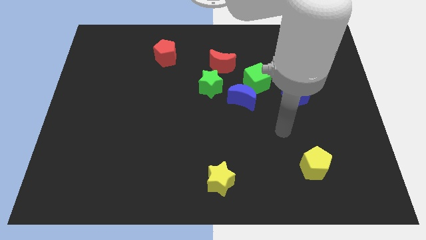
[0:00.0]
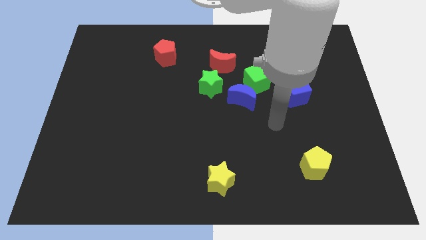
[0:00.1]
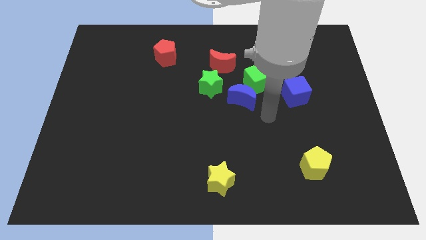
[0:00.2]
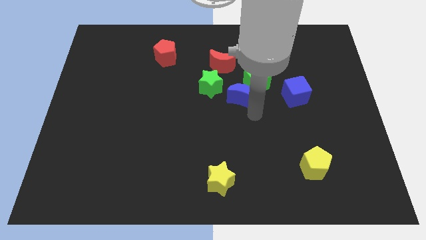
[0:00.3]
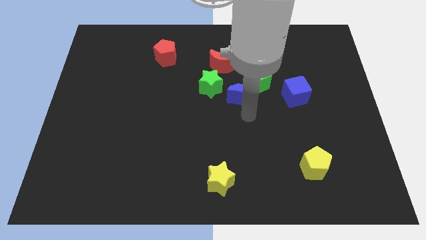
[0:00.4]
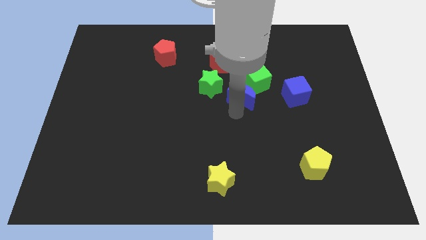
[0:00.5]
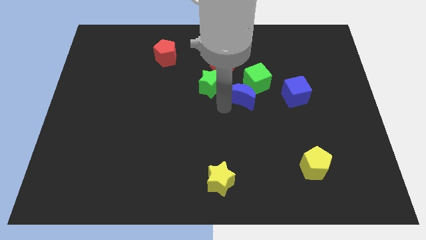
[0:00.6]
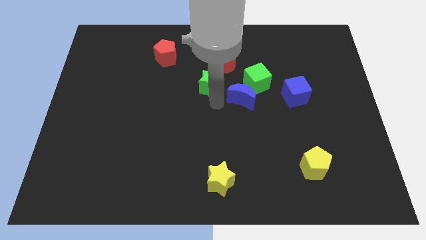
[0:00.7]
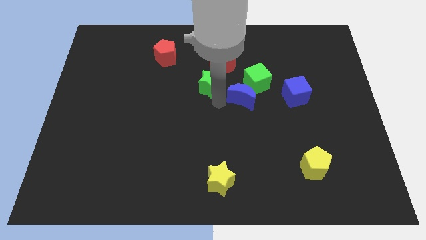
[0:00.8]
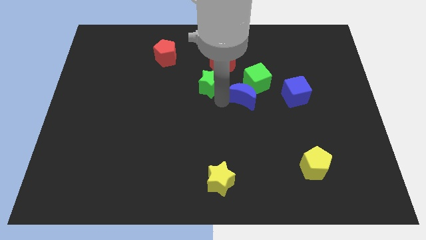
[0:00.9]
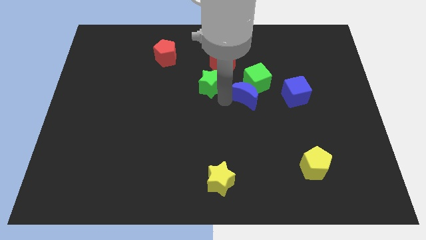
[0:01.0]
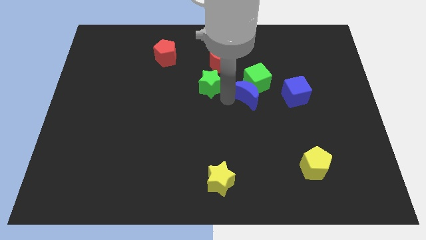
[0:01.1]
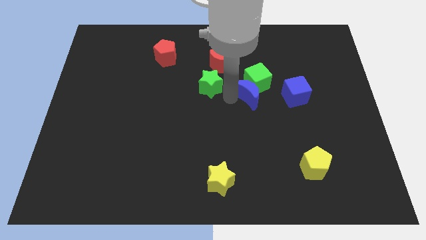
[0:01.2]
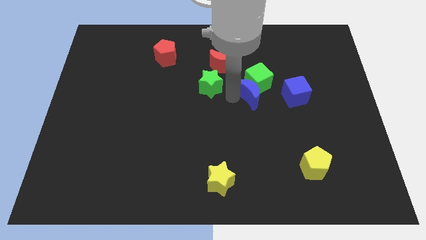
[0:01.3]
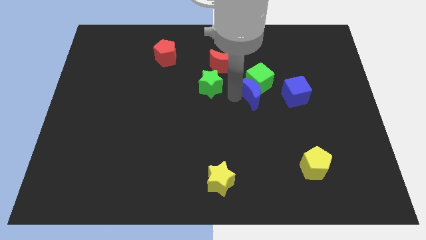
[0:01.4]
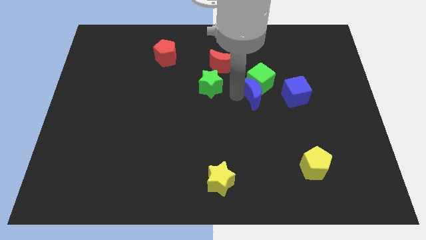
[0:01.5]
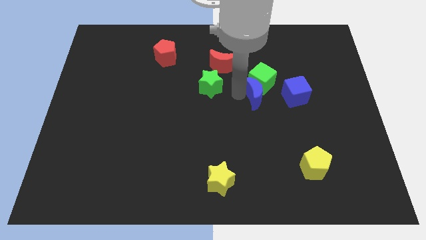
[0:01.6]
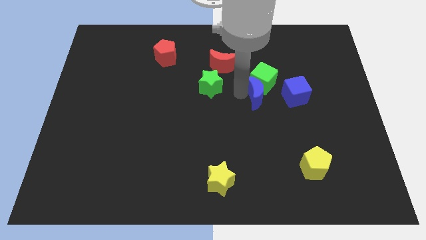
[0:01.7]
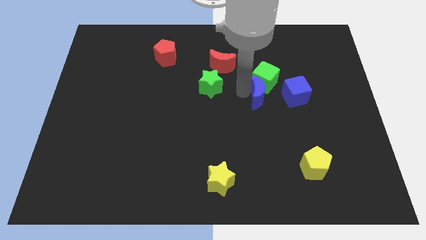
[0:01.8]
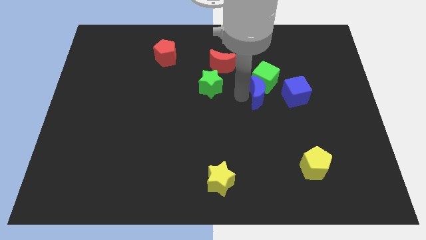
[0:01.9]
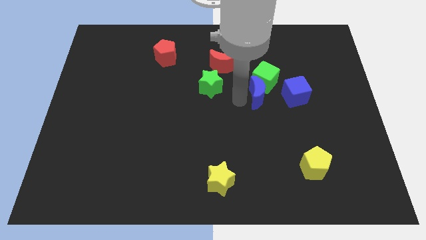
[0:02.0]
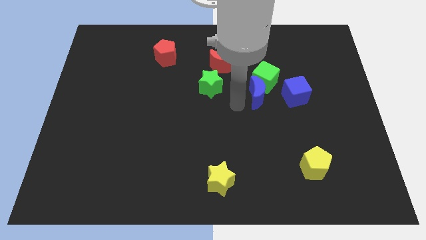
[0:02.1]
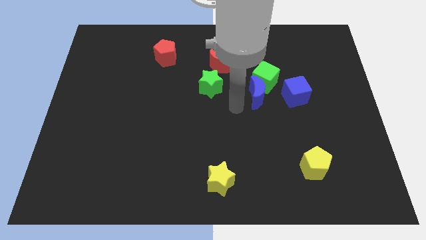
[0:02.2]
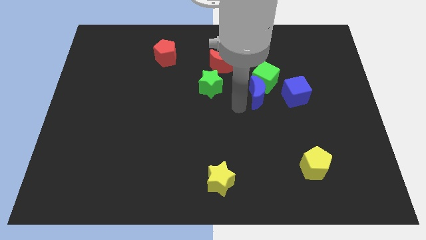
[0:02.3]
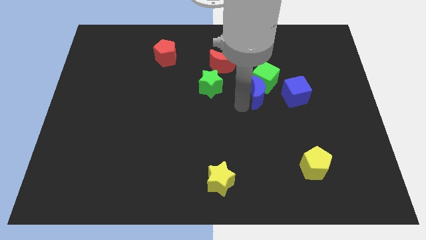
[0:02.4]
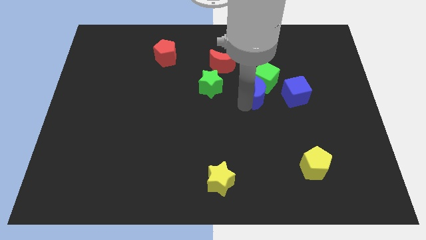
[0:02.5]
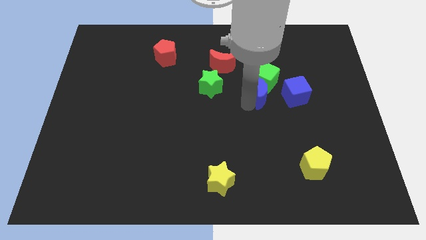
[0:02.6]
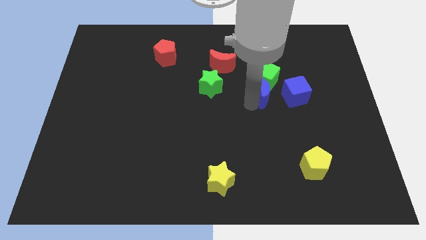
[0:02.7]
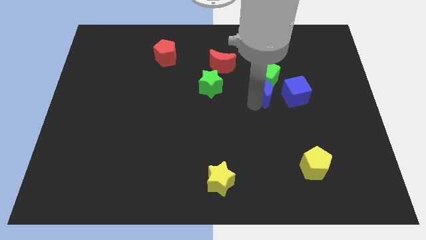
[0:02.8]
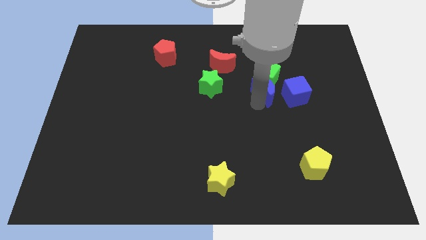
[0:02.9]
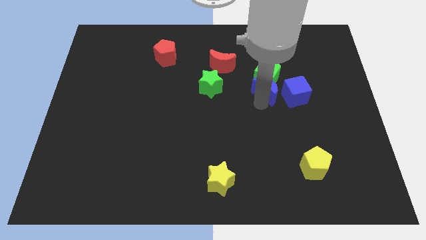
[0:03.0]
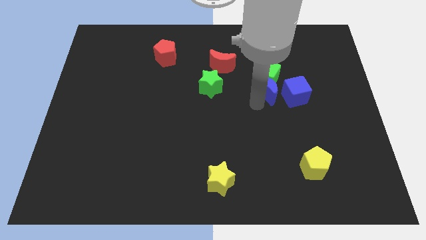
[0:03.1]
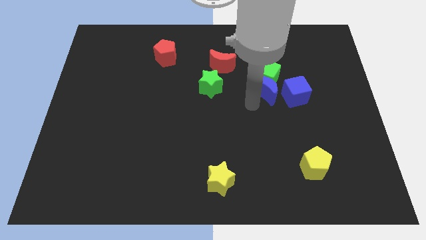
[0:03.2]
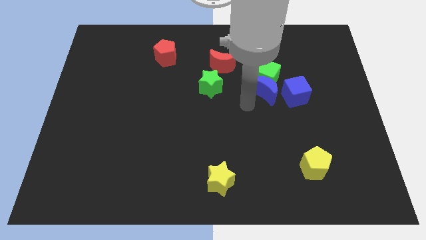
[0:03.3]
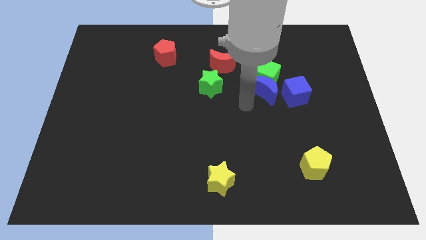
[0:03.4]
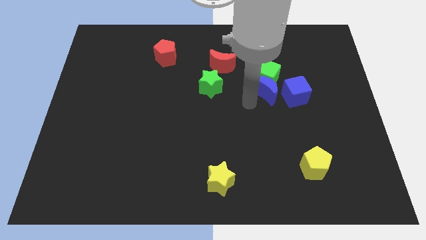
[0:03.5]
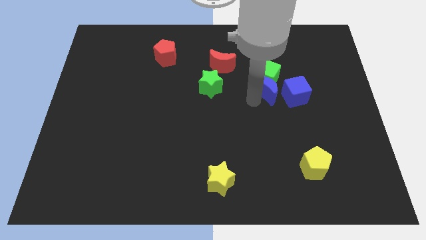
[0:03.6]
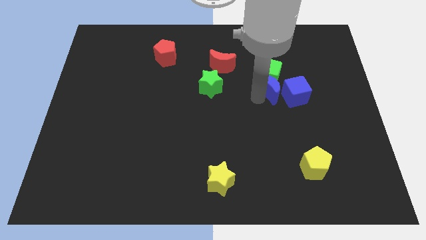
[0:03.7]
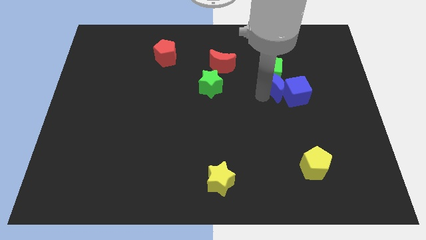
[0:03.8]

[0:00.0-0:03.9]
move the blue moon somewhat up and right

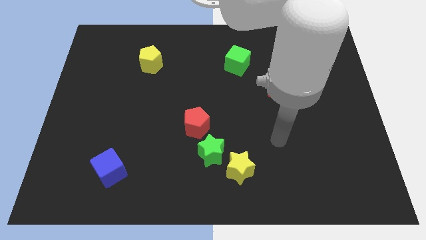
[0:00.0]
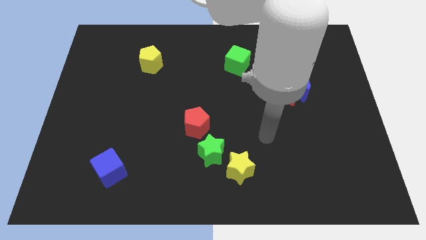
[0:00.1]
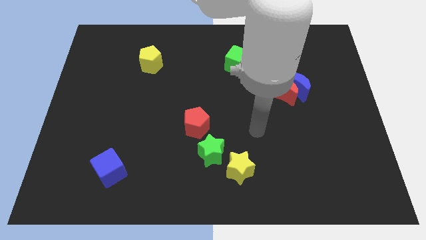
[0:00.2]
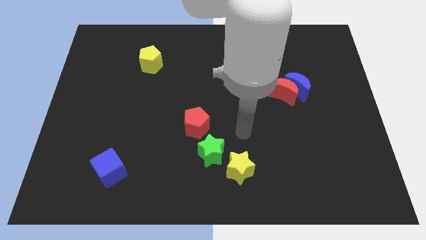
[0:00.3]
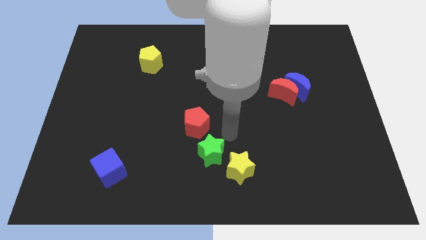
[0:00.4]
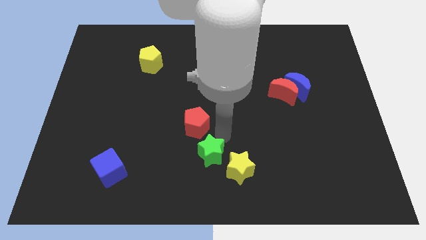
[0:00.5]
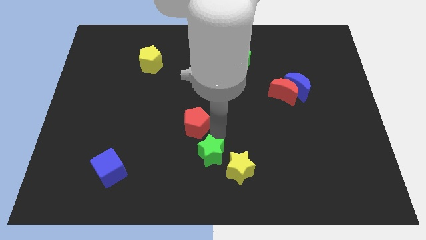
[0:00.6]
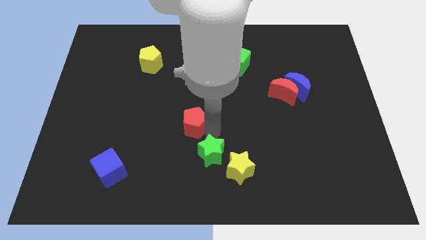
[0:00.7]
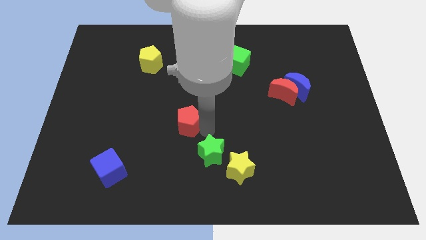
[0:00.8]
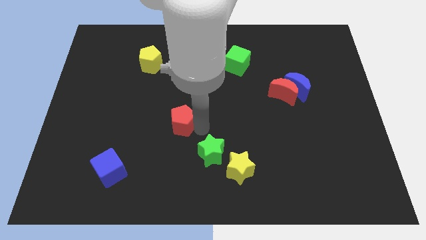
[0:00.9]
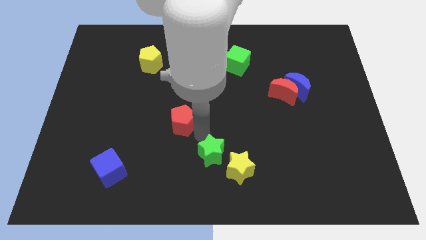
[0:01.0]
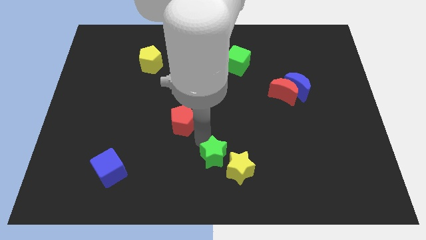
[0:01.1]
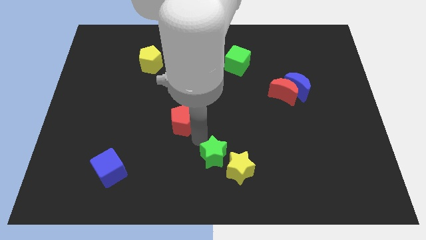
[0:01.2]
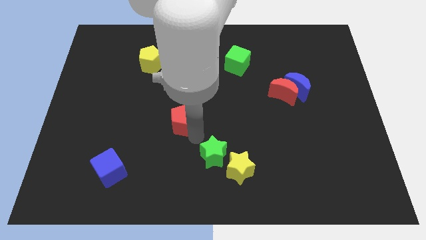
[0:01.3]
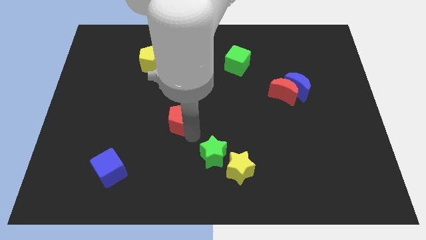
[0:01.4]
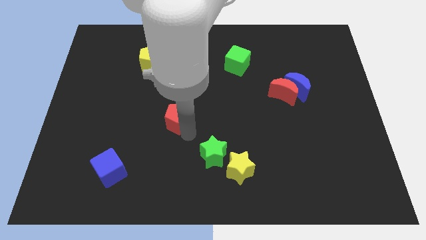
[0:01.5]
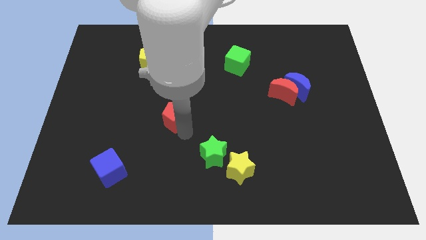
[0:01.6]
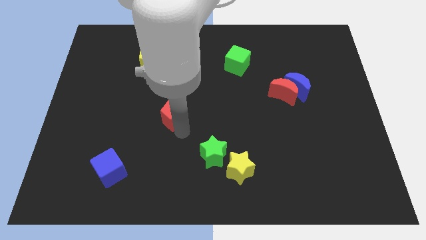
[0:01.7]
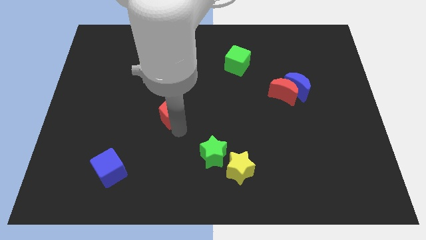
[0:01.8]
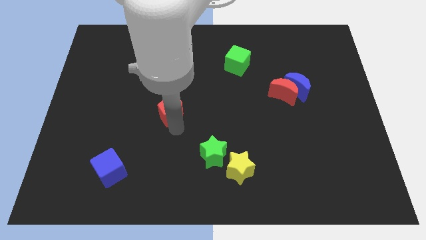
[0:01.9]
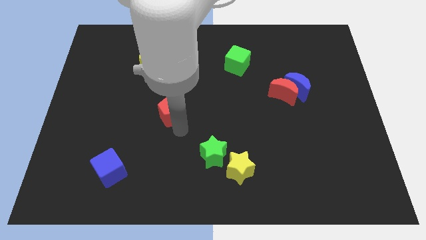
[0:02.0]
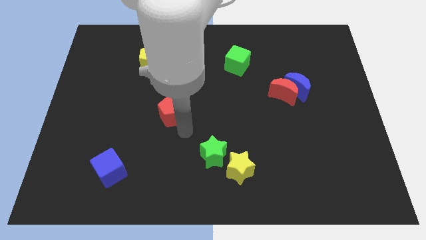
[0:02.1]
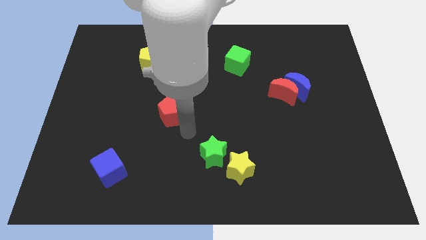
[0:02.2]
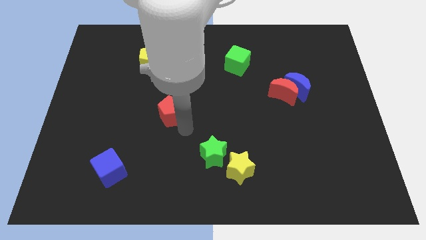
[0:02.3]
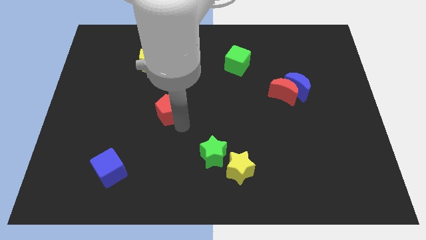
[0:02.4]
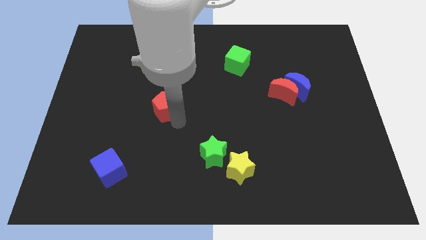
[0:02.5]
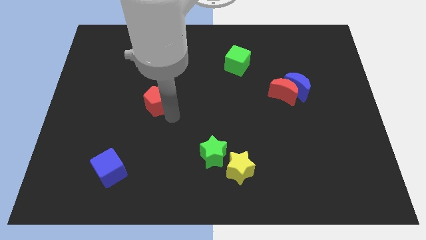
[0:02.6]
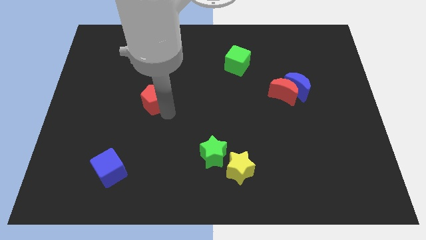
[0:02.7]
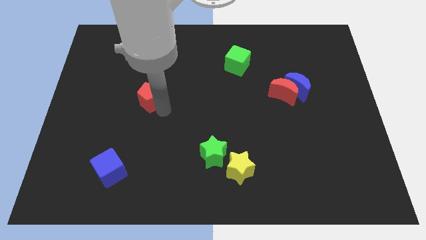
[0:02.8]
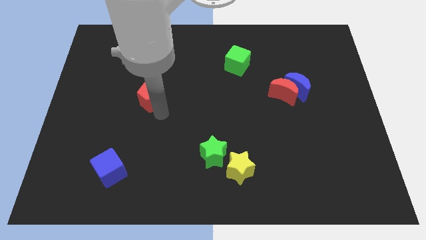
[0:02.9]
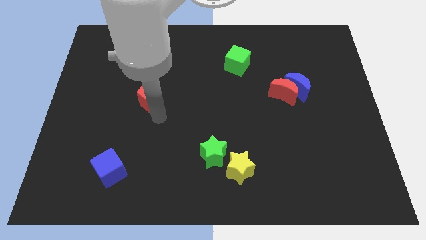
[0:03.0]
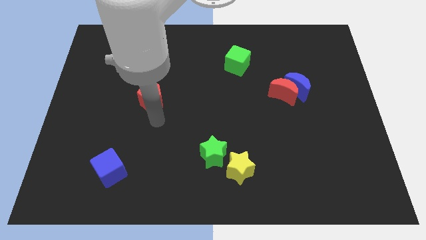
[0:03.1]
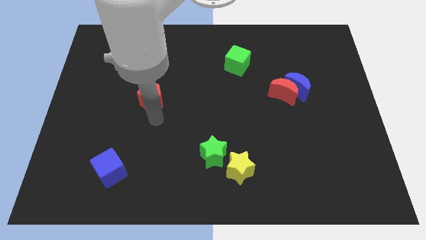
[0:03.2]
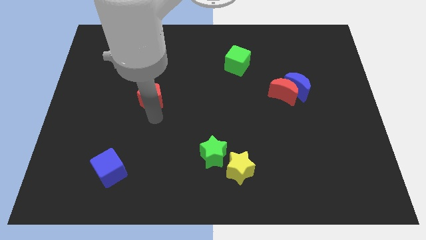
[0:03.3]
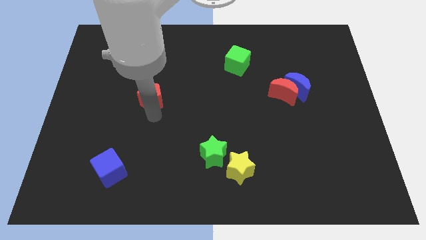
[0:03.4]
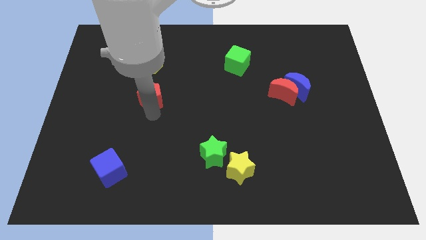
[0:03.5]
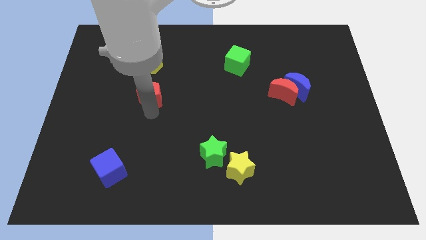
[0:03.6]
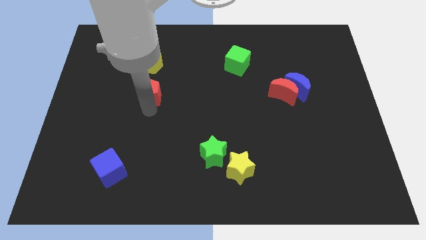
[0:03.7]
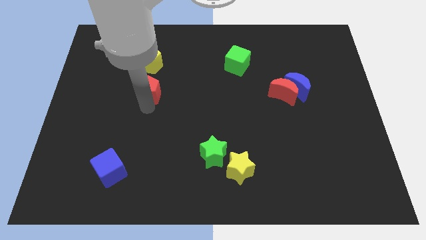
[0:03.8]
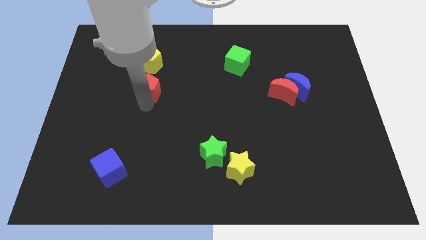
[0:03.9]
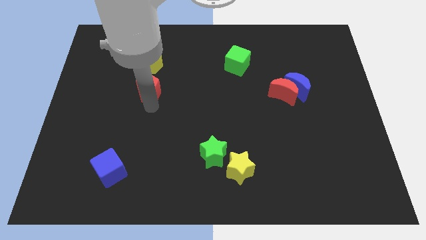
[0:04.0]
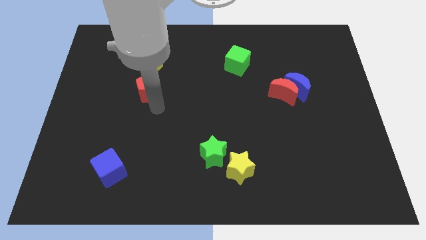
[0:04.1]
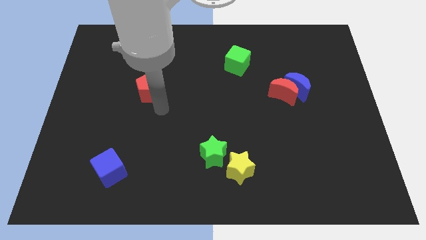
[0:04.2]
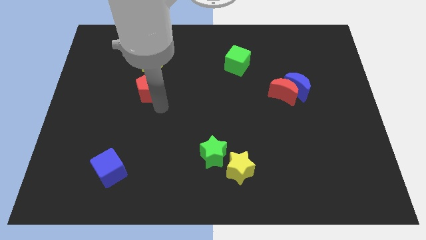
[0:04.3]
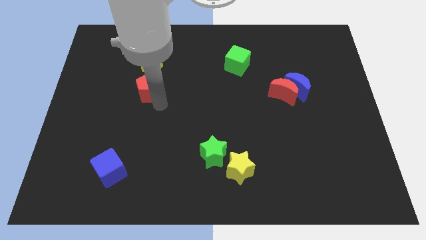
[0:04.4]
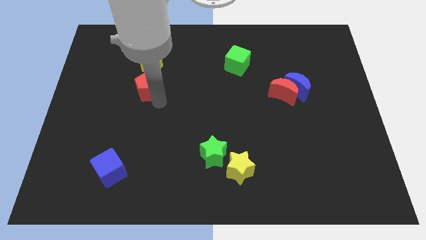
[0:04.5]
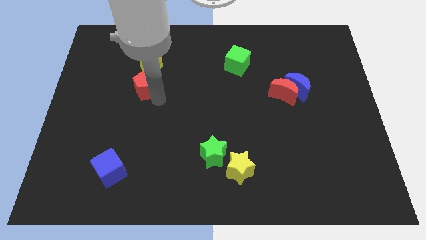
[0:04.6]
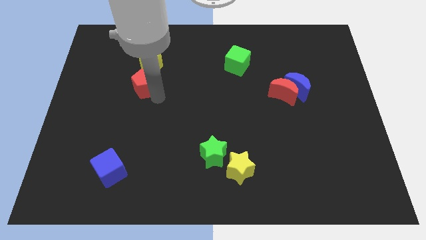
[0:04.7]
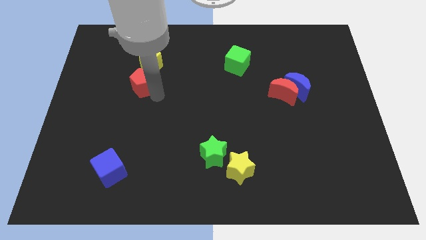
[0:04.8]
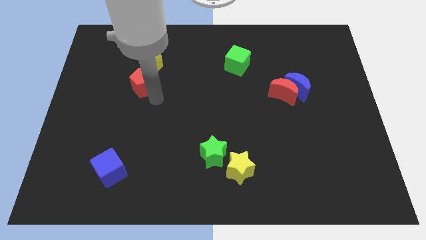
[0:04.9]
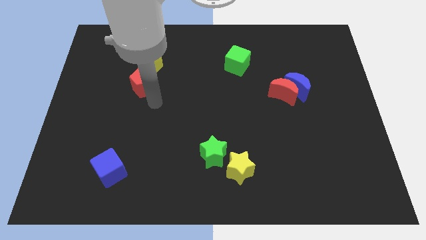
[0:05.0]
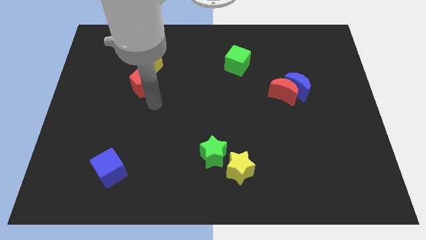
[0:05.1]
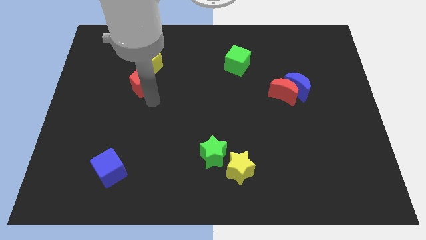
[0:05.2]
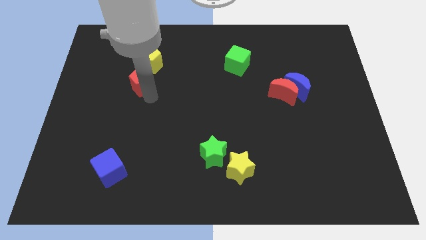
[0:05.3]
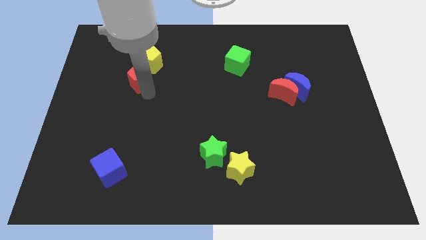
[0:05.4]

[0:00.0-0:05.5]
push the red pentagon up and left
